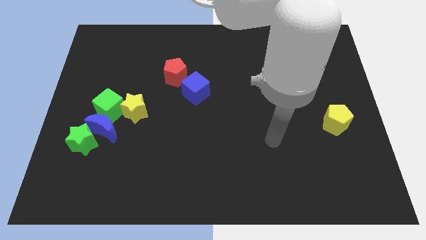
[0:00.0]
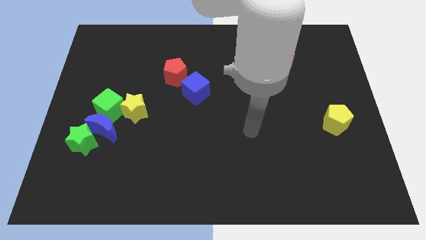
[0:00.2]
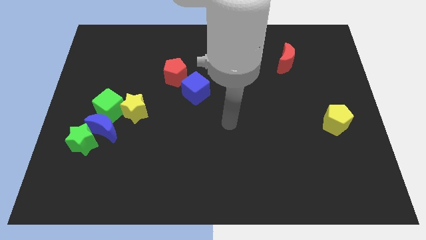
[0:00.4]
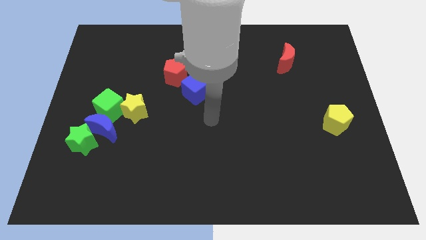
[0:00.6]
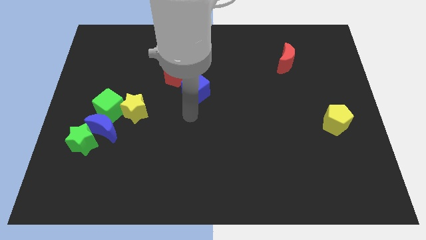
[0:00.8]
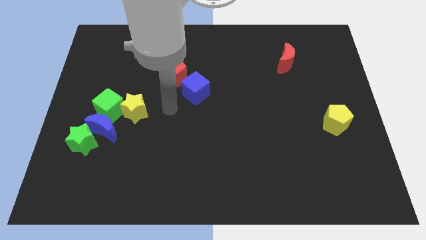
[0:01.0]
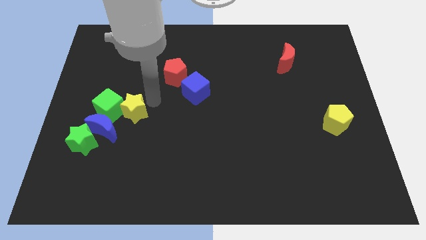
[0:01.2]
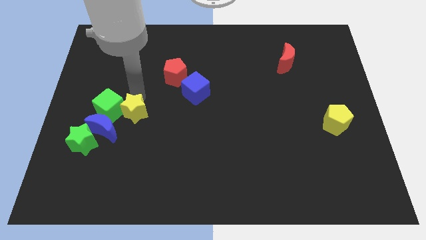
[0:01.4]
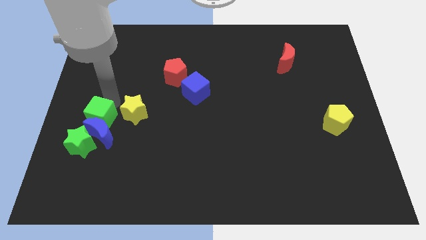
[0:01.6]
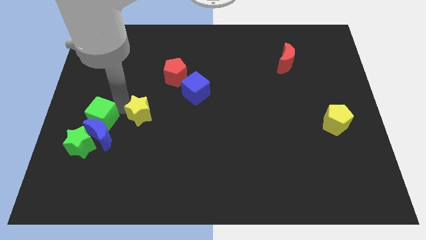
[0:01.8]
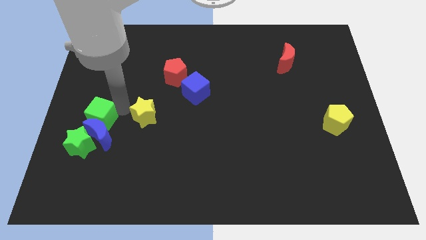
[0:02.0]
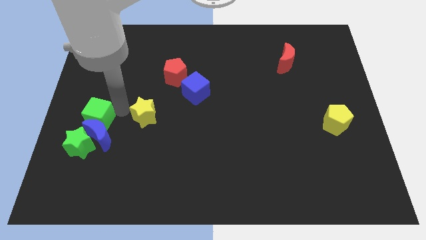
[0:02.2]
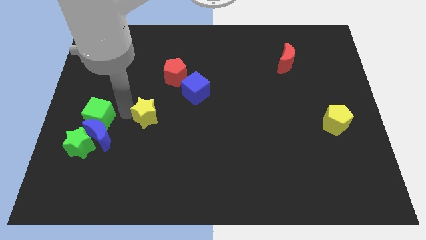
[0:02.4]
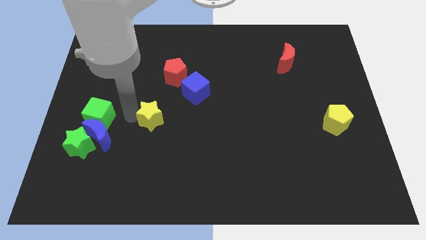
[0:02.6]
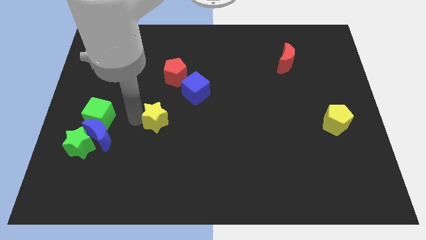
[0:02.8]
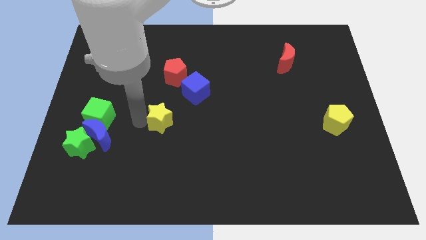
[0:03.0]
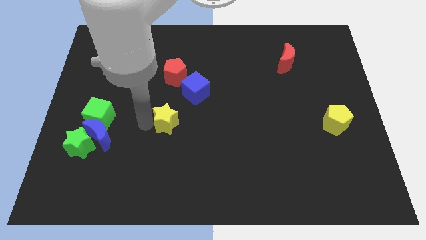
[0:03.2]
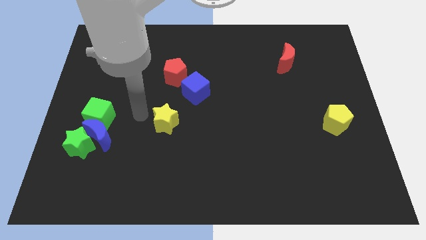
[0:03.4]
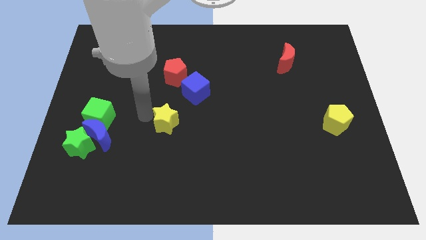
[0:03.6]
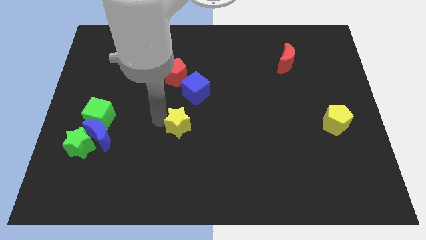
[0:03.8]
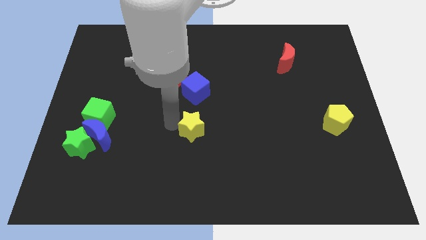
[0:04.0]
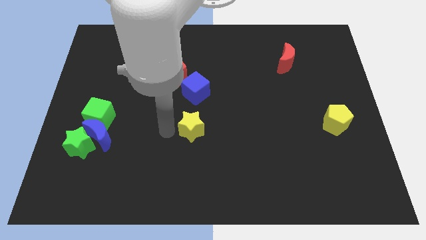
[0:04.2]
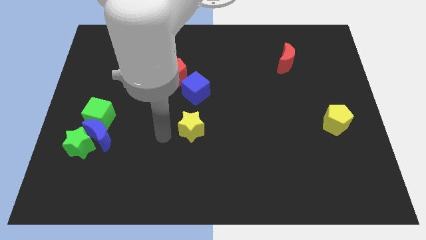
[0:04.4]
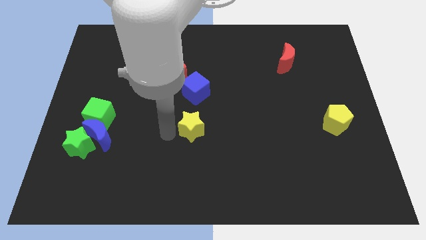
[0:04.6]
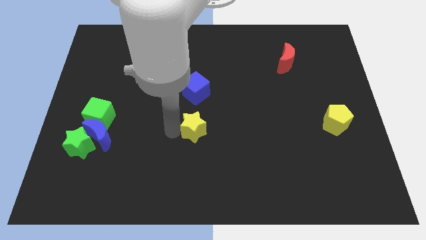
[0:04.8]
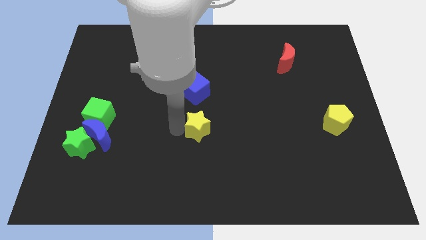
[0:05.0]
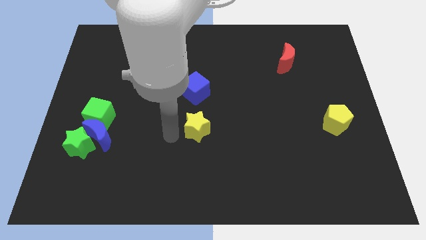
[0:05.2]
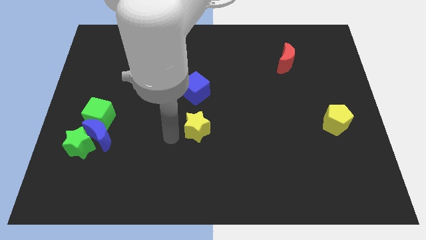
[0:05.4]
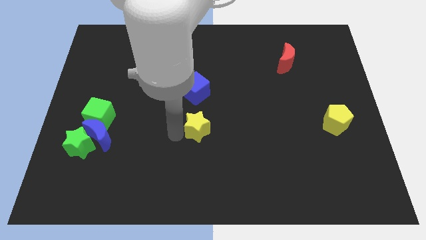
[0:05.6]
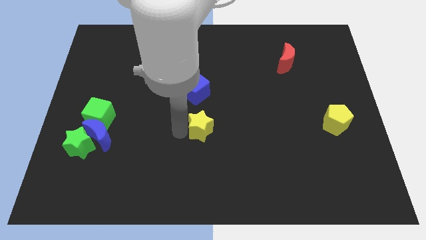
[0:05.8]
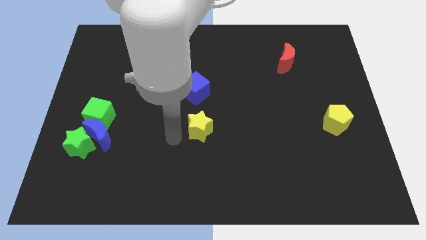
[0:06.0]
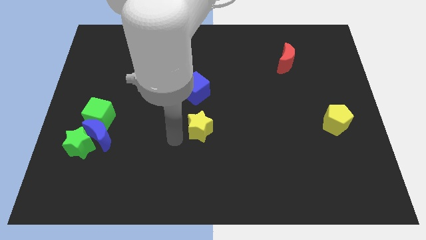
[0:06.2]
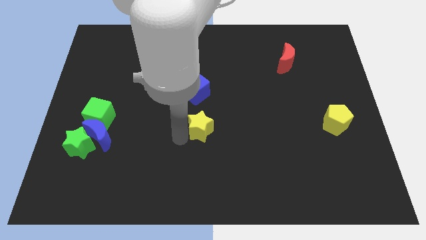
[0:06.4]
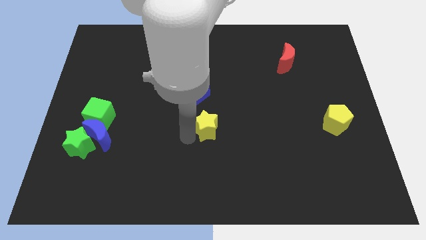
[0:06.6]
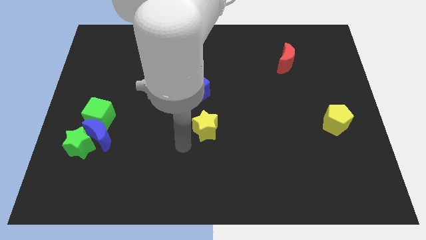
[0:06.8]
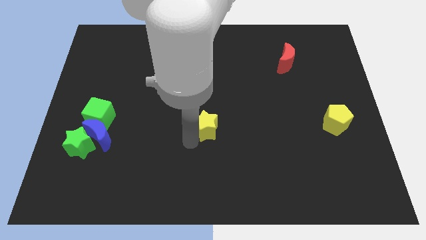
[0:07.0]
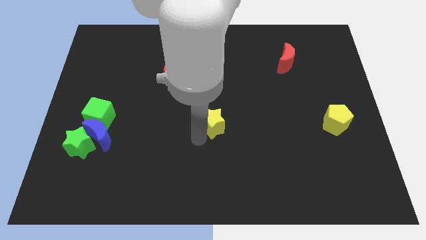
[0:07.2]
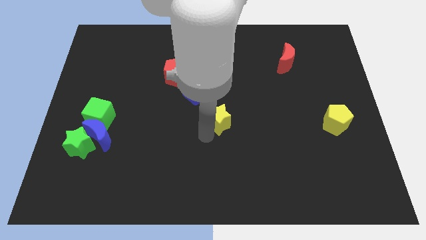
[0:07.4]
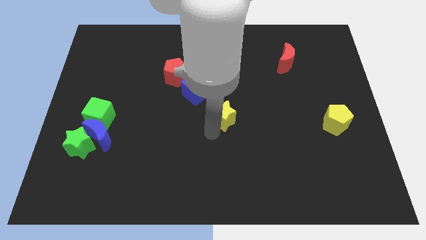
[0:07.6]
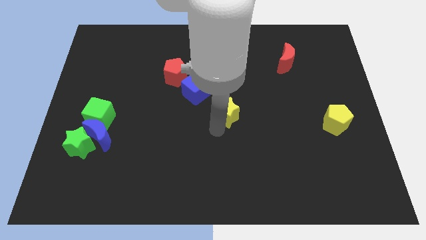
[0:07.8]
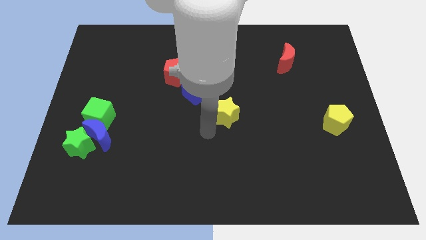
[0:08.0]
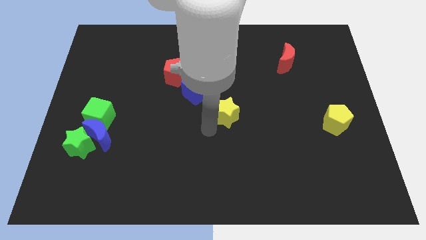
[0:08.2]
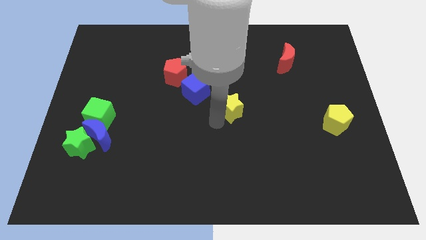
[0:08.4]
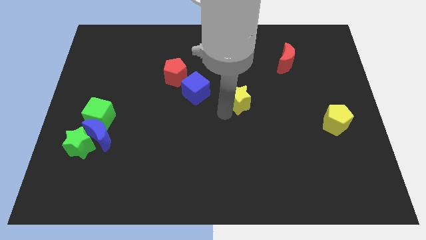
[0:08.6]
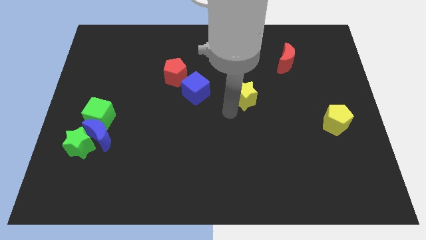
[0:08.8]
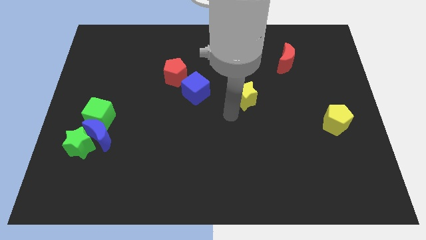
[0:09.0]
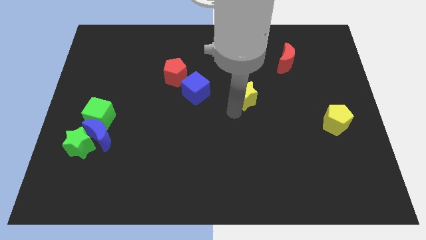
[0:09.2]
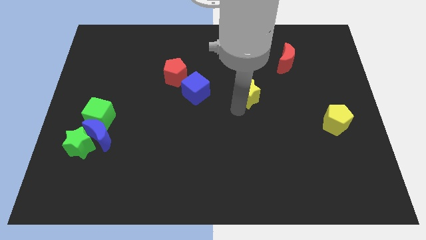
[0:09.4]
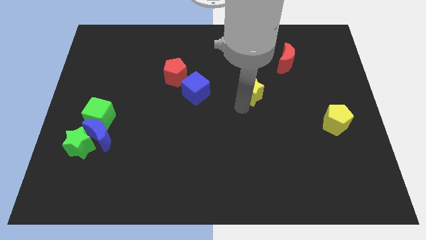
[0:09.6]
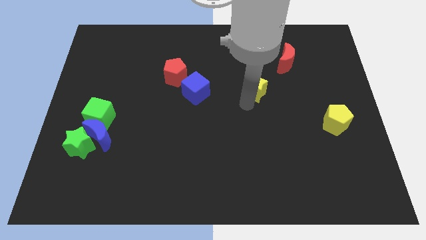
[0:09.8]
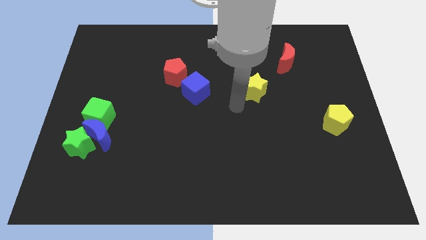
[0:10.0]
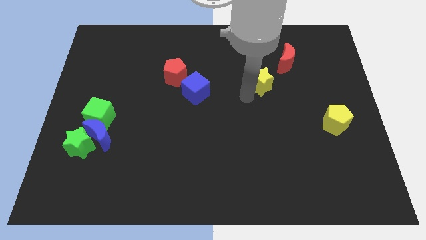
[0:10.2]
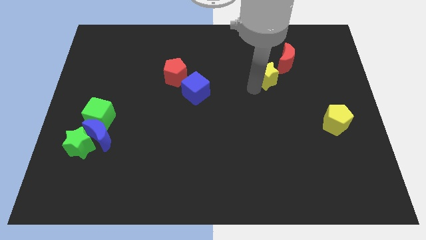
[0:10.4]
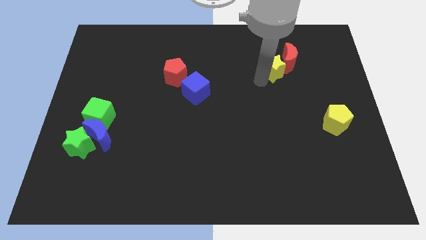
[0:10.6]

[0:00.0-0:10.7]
move the yellow star close to the red moon

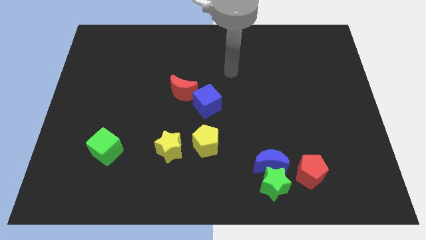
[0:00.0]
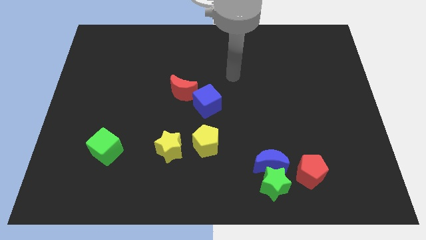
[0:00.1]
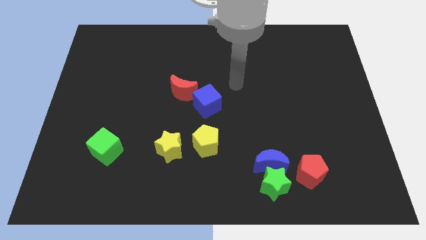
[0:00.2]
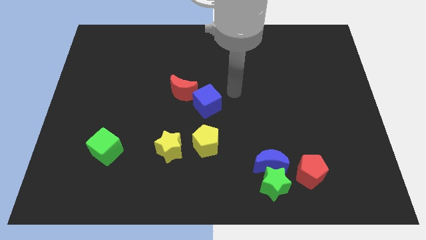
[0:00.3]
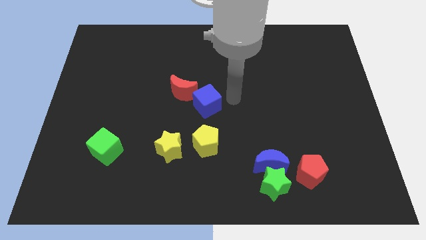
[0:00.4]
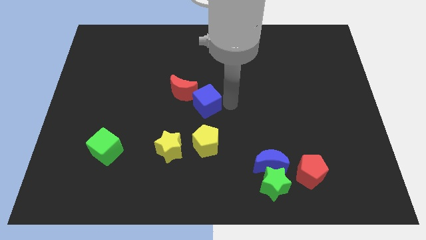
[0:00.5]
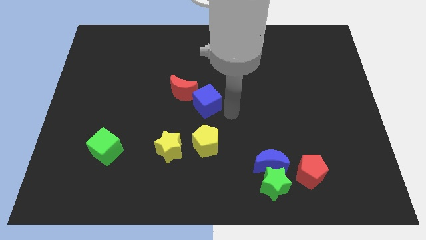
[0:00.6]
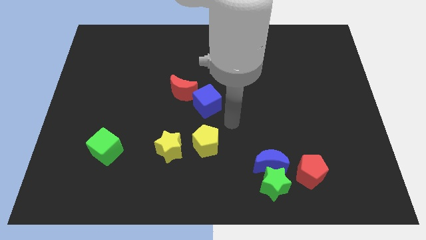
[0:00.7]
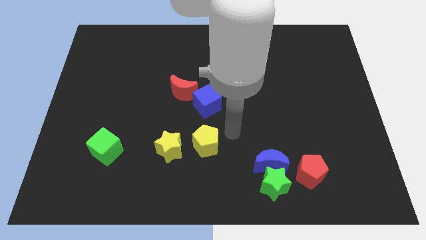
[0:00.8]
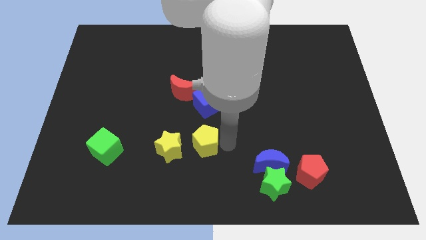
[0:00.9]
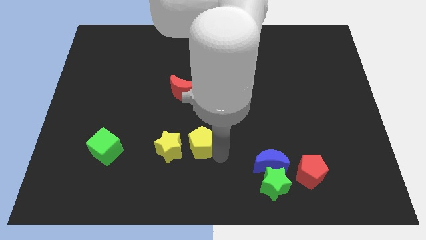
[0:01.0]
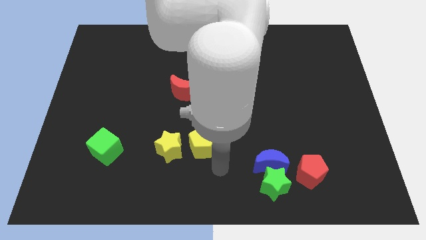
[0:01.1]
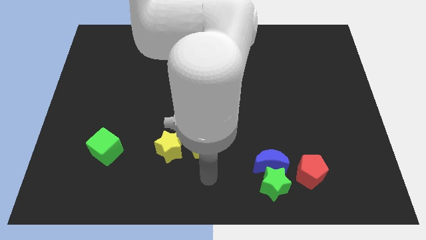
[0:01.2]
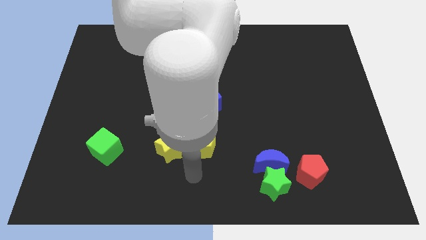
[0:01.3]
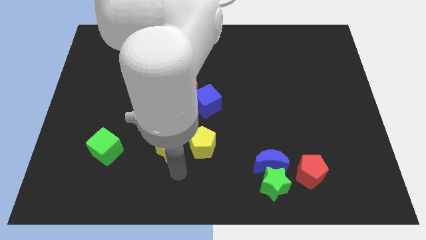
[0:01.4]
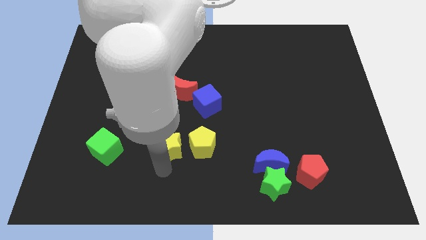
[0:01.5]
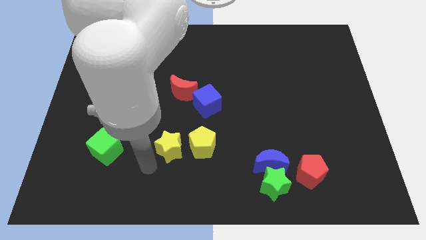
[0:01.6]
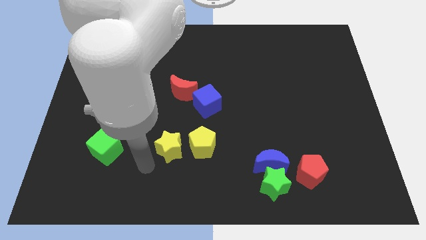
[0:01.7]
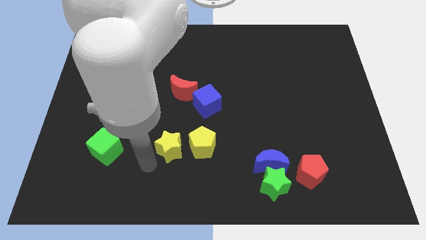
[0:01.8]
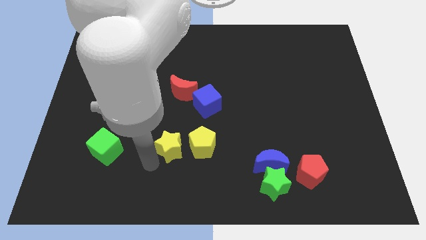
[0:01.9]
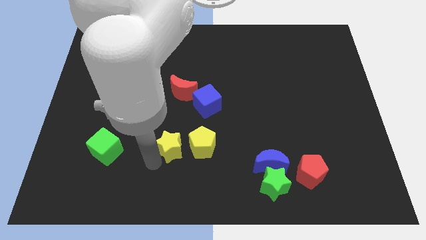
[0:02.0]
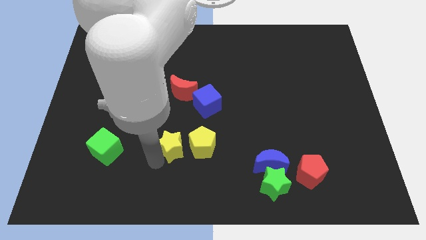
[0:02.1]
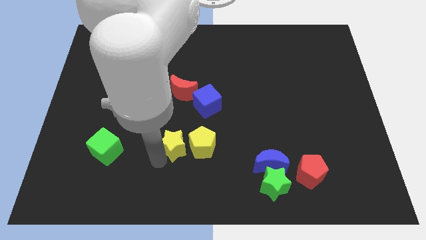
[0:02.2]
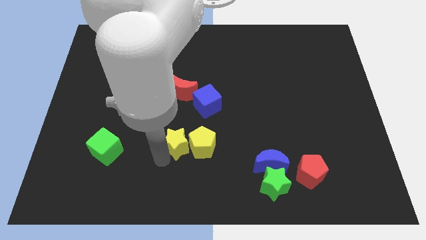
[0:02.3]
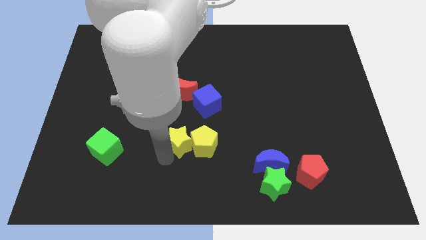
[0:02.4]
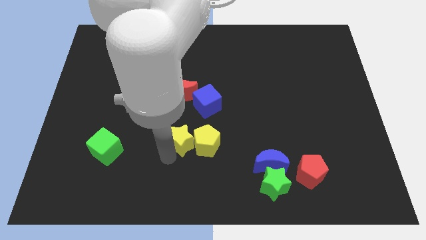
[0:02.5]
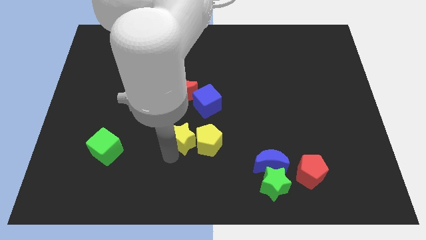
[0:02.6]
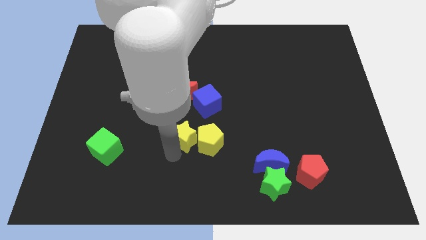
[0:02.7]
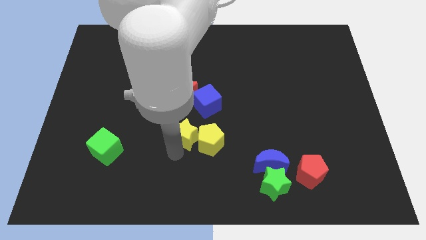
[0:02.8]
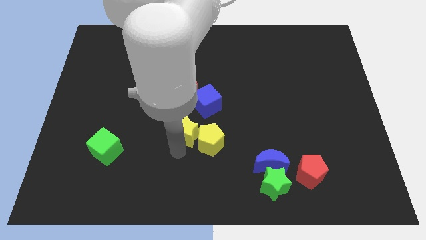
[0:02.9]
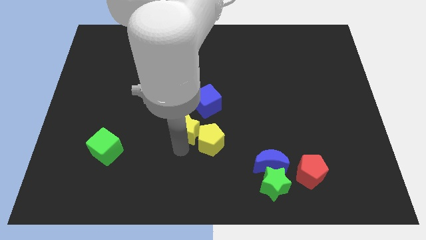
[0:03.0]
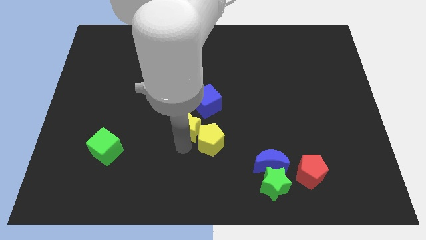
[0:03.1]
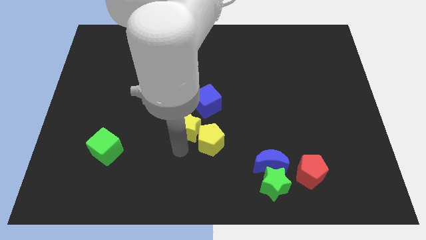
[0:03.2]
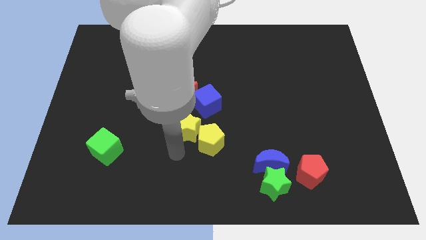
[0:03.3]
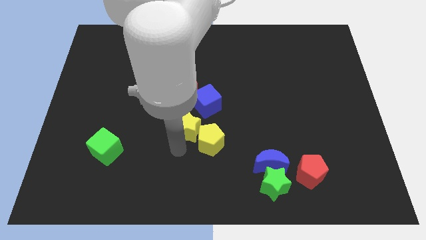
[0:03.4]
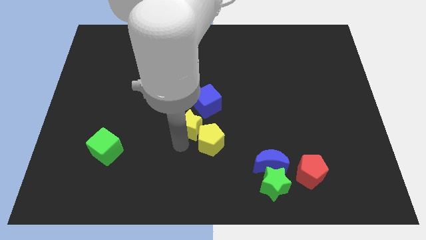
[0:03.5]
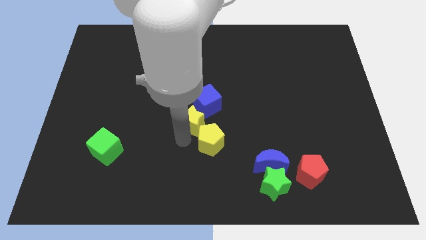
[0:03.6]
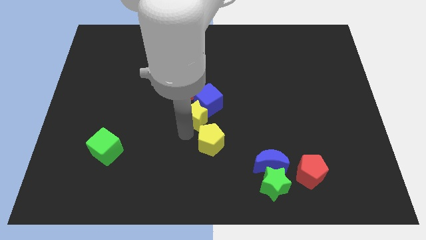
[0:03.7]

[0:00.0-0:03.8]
slide the yellow star to the blue cube
